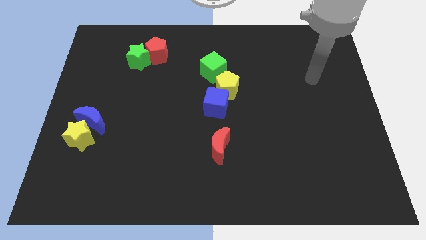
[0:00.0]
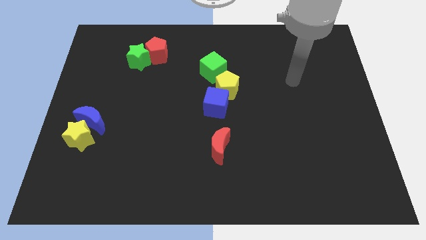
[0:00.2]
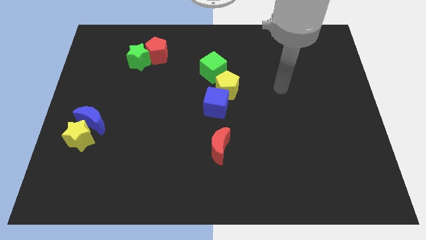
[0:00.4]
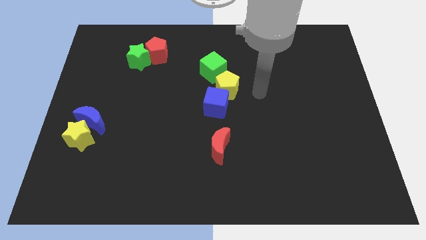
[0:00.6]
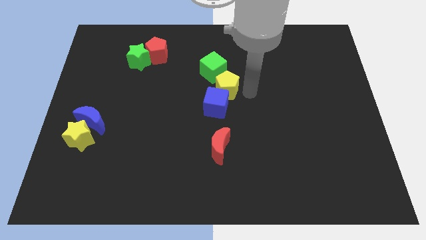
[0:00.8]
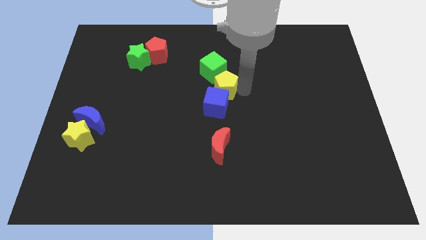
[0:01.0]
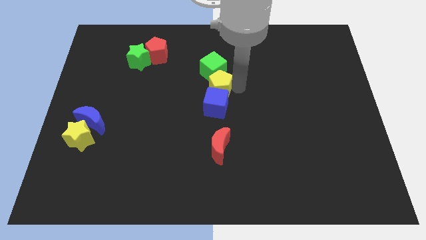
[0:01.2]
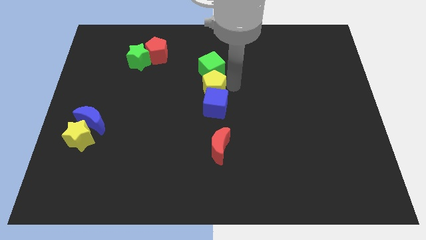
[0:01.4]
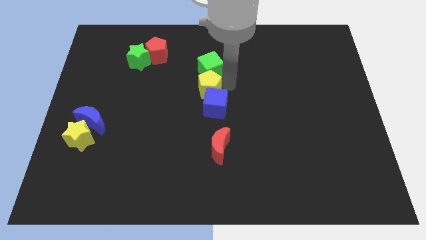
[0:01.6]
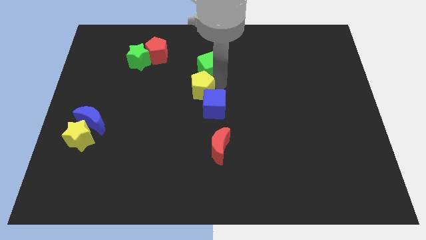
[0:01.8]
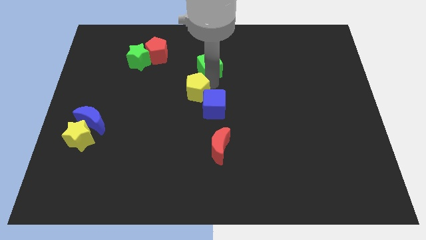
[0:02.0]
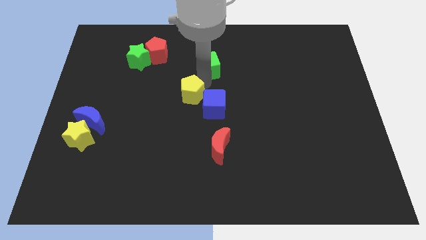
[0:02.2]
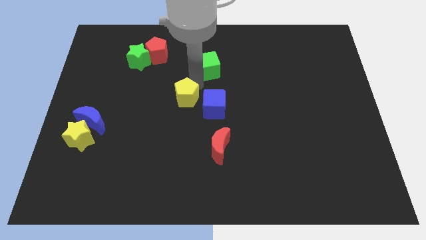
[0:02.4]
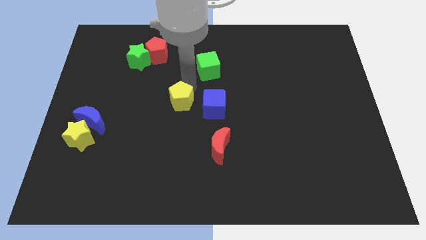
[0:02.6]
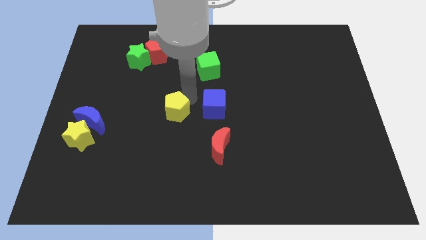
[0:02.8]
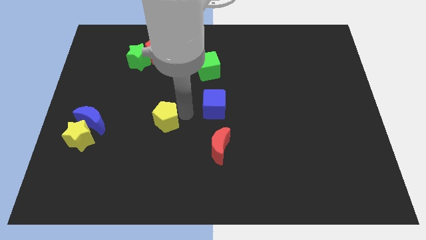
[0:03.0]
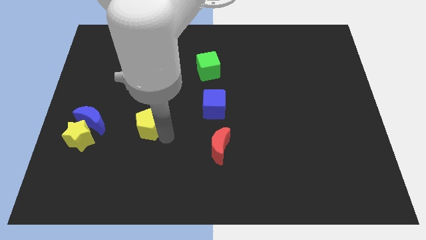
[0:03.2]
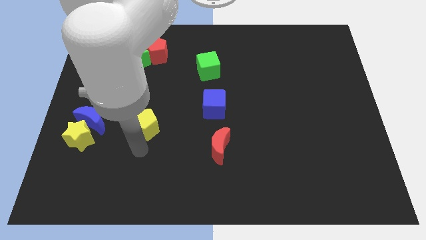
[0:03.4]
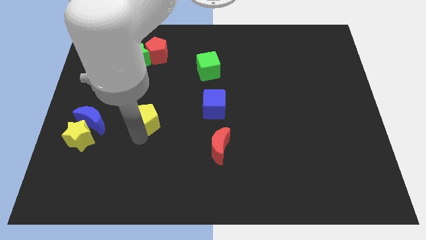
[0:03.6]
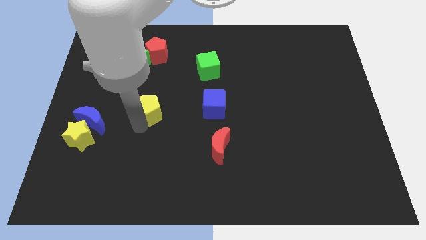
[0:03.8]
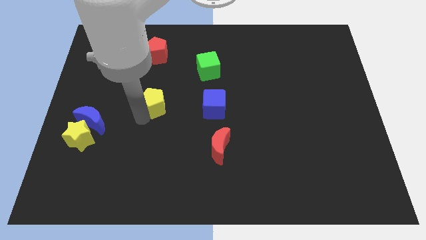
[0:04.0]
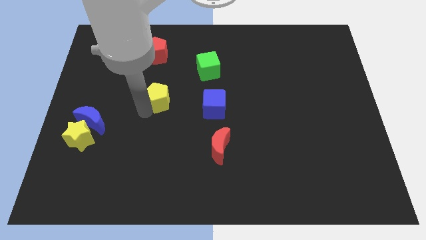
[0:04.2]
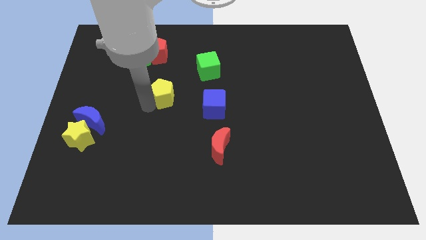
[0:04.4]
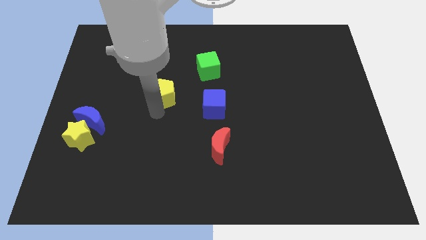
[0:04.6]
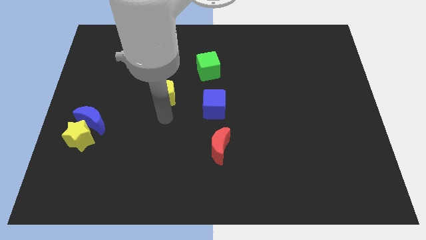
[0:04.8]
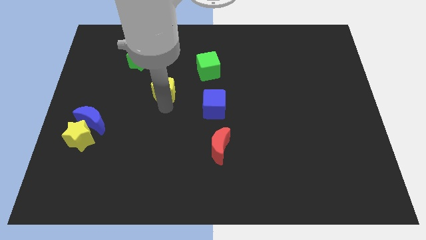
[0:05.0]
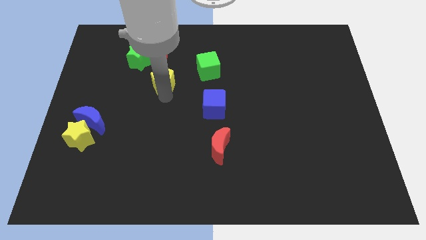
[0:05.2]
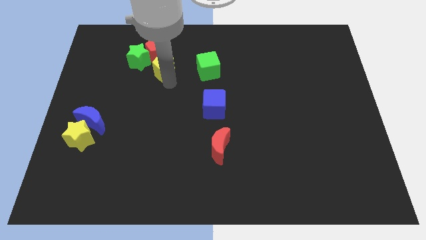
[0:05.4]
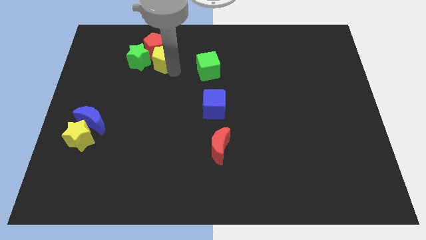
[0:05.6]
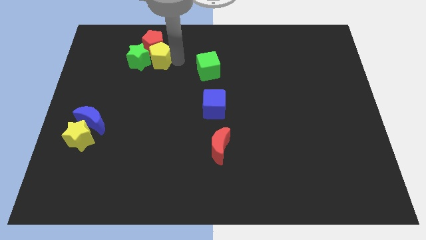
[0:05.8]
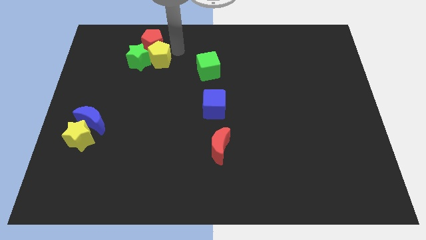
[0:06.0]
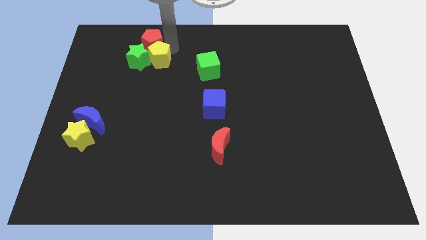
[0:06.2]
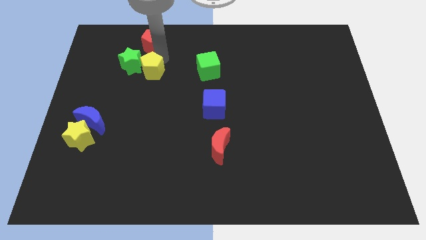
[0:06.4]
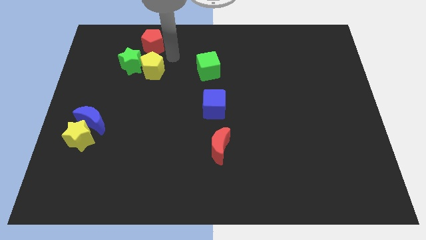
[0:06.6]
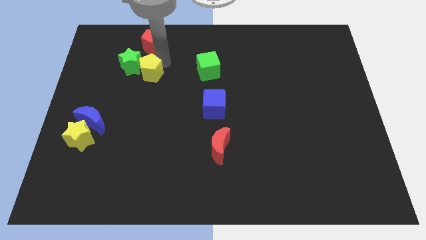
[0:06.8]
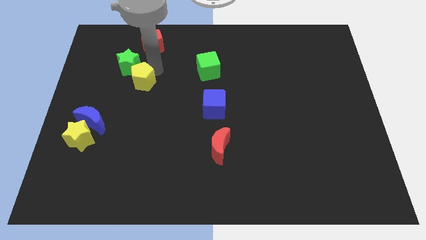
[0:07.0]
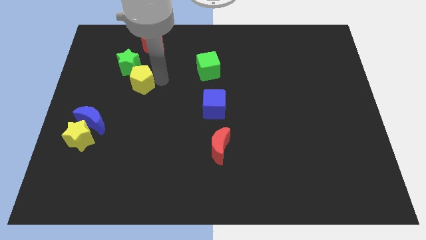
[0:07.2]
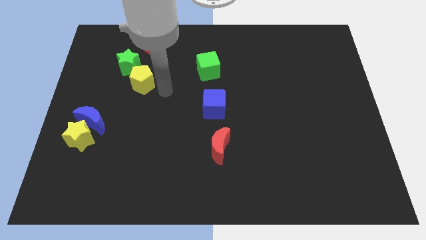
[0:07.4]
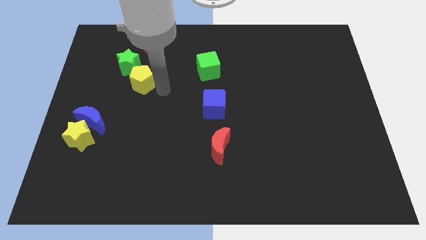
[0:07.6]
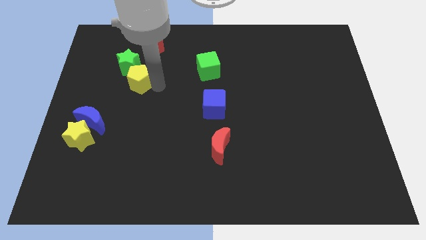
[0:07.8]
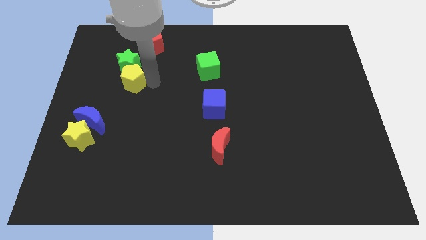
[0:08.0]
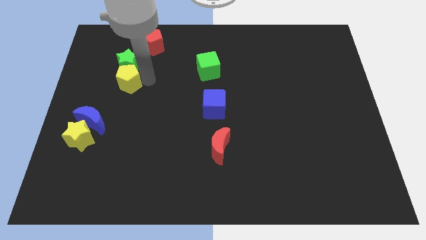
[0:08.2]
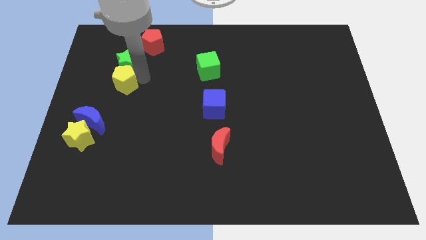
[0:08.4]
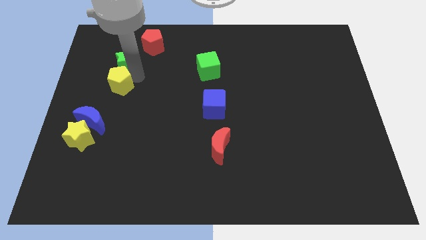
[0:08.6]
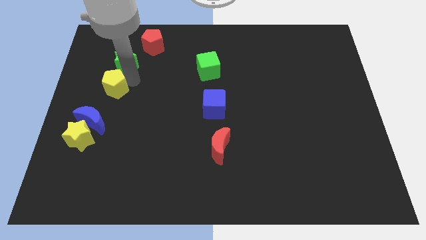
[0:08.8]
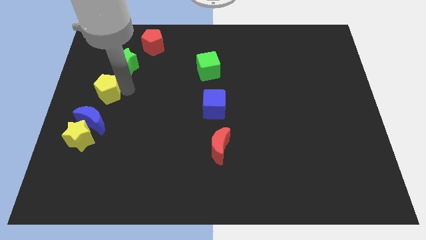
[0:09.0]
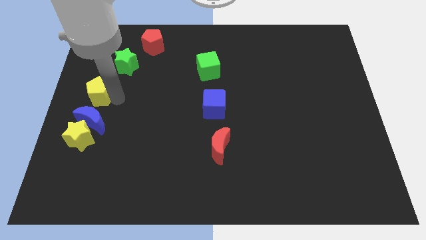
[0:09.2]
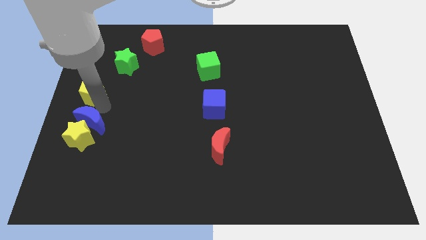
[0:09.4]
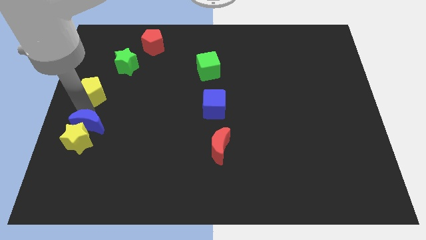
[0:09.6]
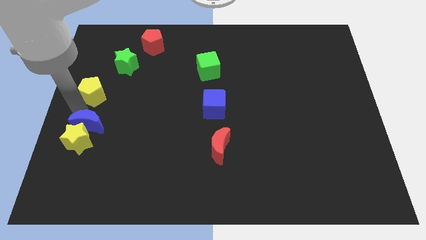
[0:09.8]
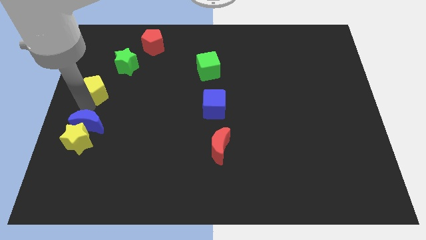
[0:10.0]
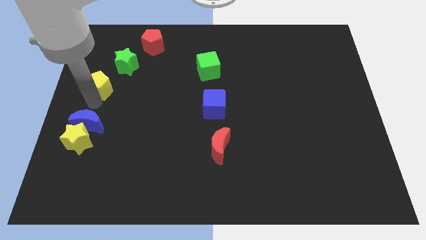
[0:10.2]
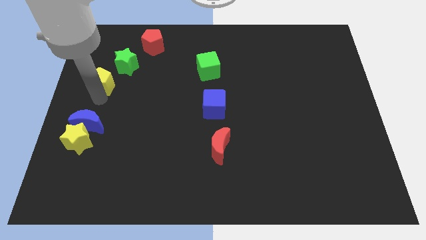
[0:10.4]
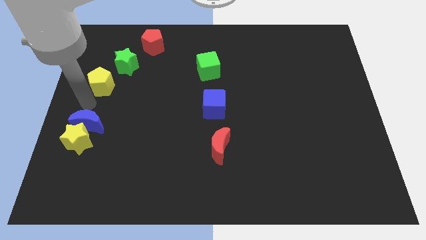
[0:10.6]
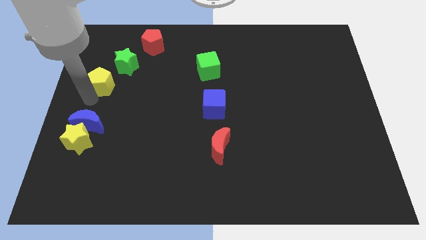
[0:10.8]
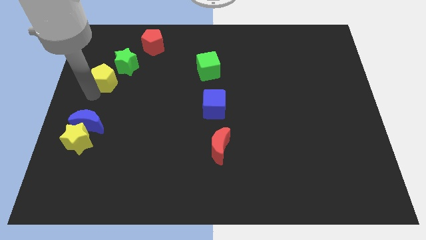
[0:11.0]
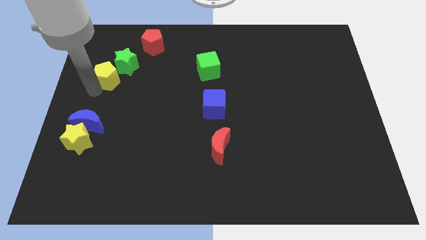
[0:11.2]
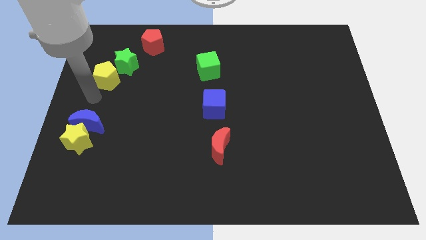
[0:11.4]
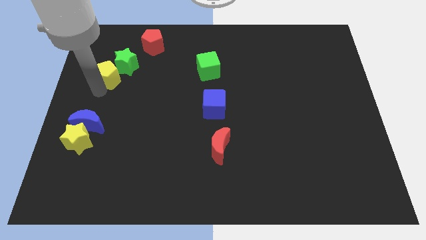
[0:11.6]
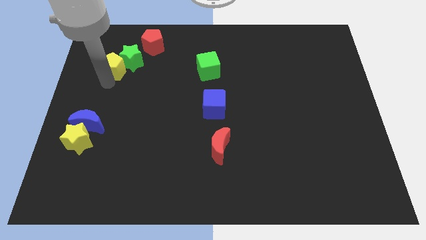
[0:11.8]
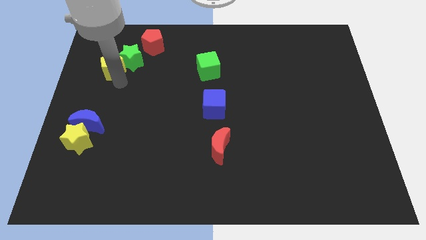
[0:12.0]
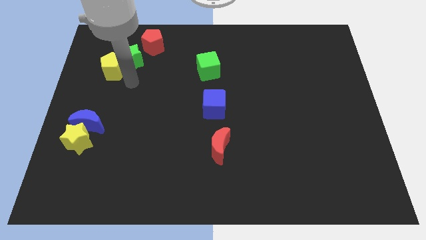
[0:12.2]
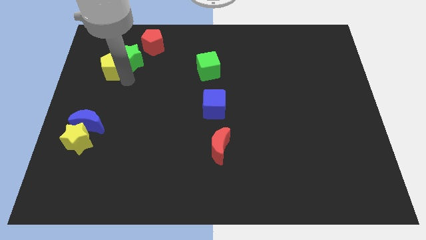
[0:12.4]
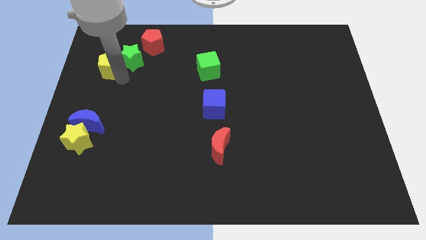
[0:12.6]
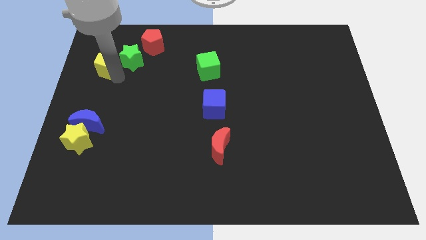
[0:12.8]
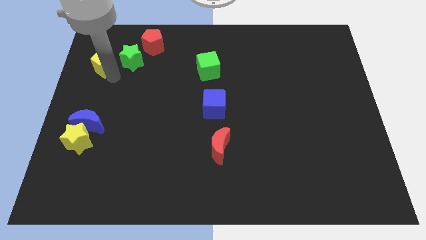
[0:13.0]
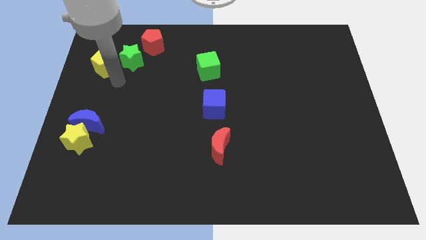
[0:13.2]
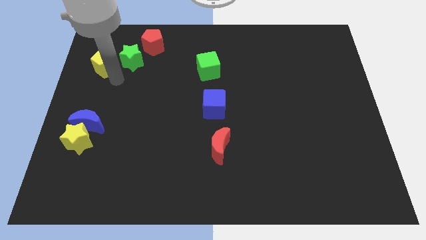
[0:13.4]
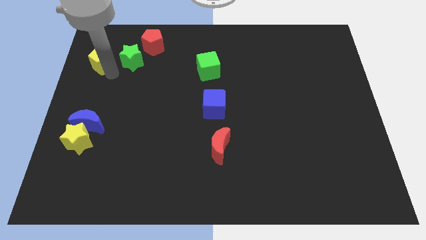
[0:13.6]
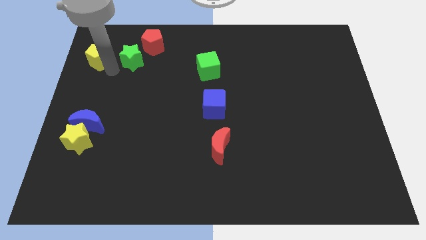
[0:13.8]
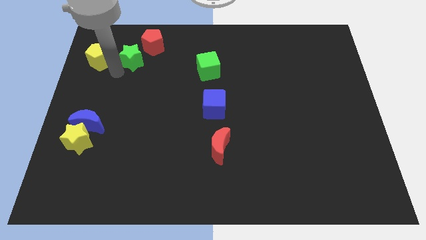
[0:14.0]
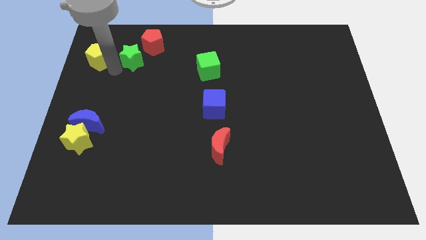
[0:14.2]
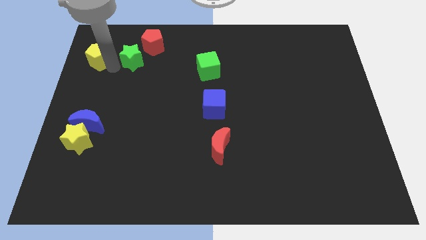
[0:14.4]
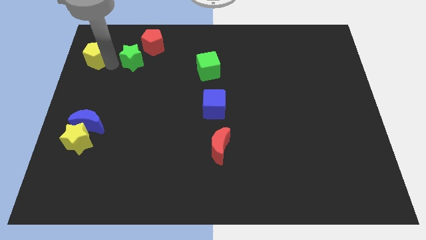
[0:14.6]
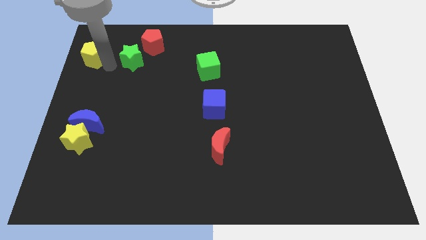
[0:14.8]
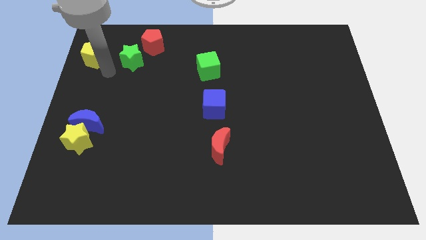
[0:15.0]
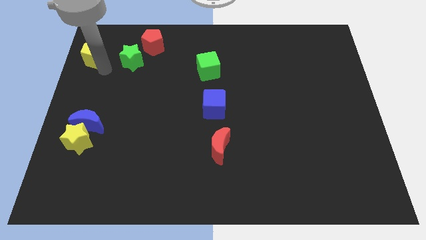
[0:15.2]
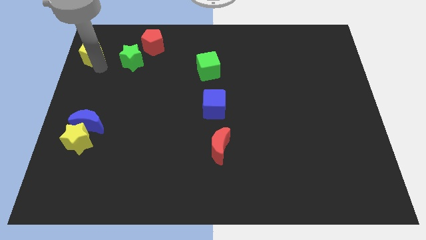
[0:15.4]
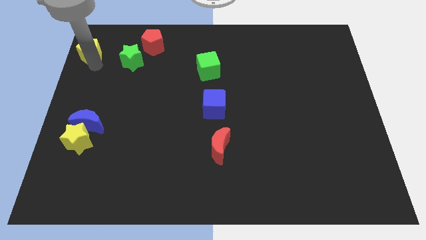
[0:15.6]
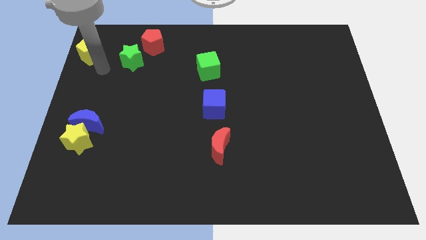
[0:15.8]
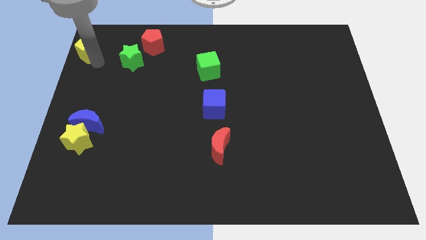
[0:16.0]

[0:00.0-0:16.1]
slide the yellow pentagon to the upper left corner
